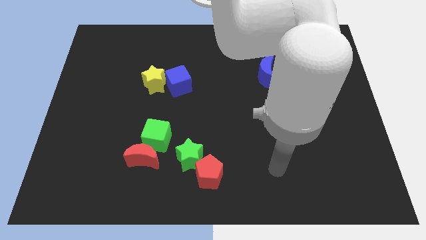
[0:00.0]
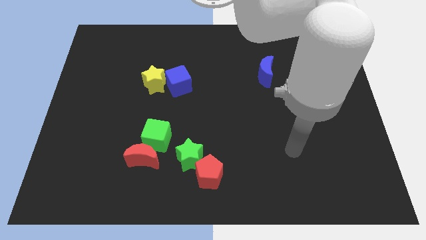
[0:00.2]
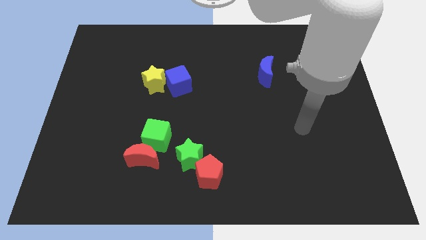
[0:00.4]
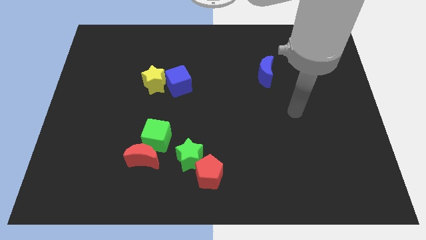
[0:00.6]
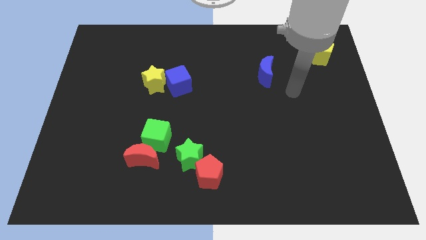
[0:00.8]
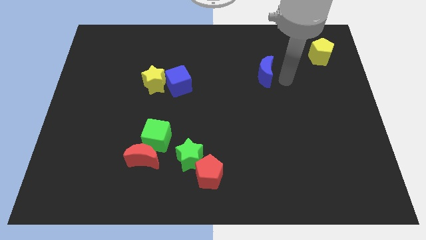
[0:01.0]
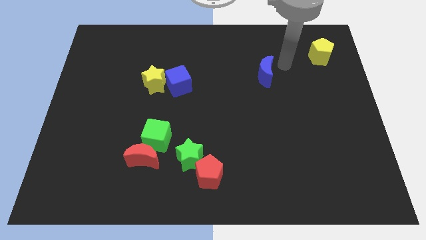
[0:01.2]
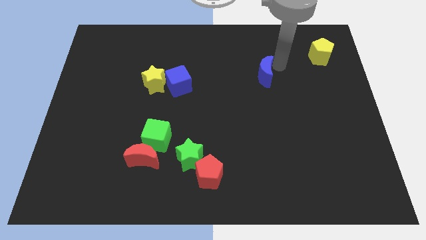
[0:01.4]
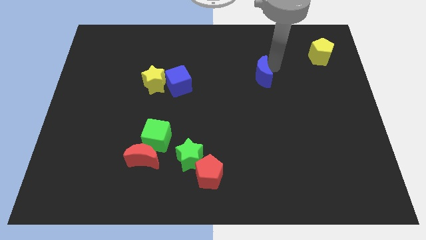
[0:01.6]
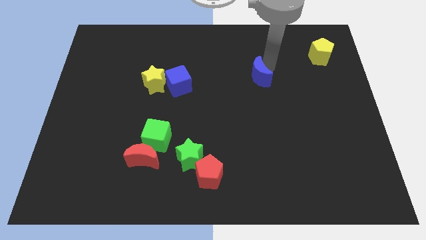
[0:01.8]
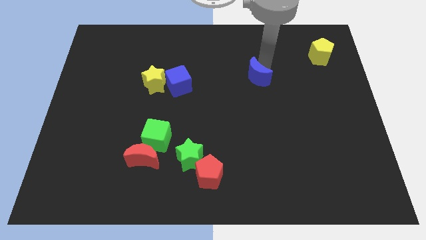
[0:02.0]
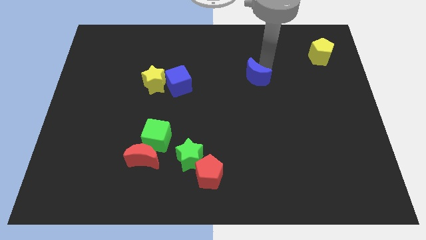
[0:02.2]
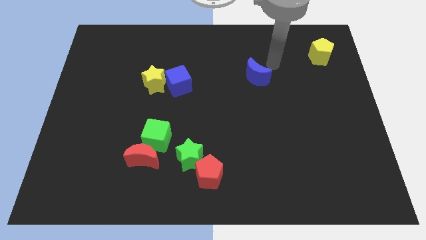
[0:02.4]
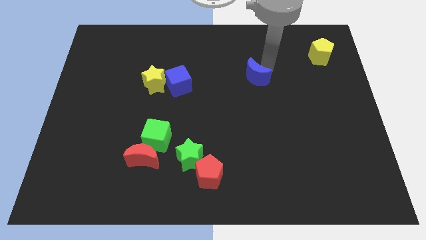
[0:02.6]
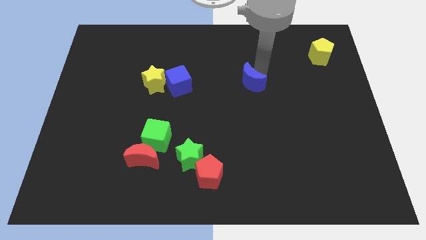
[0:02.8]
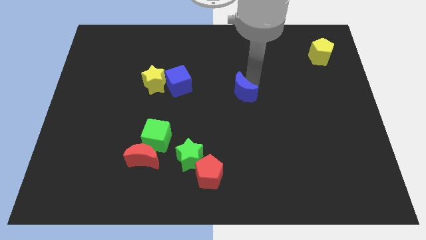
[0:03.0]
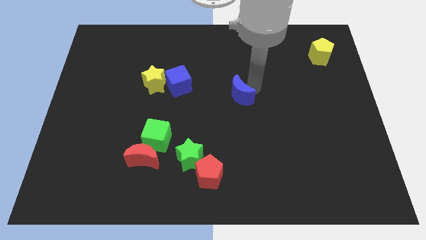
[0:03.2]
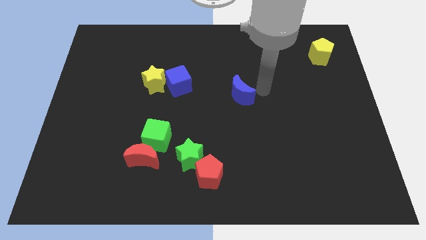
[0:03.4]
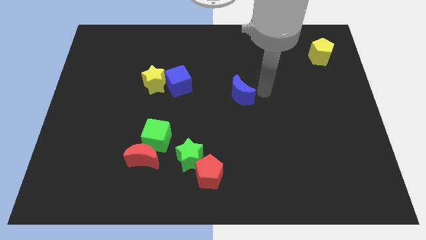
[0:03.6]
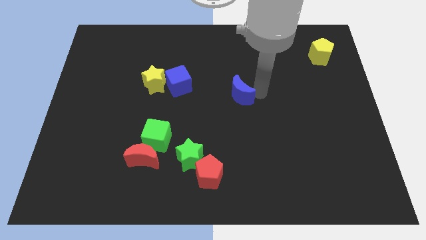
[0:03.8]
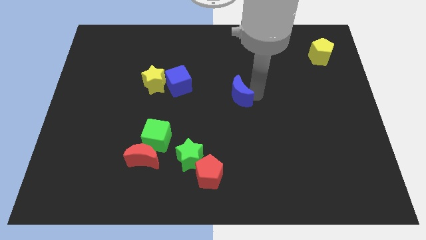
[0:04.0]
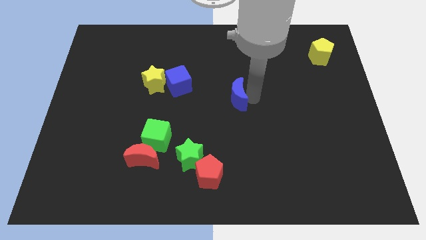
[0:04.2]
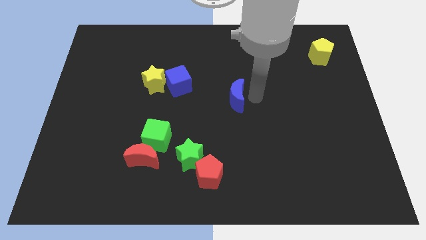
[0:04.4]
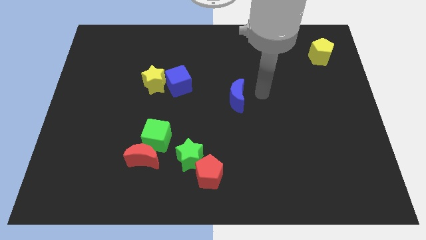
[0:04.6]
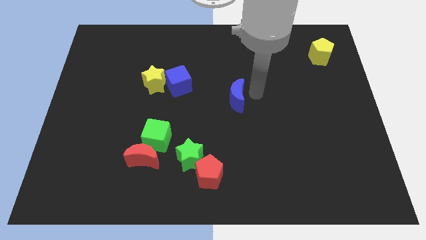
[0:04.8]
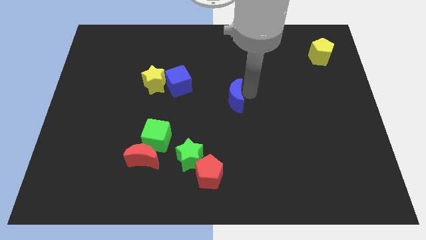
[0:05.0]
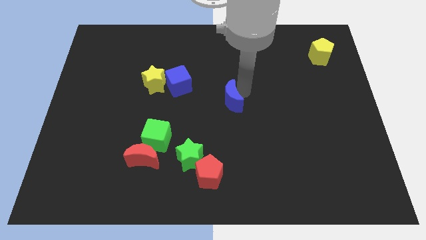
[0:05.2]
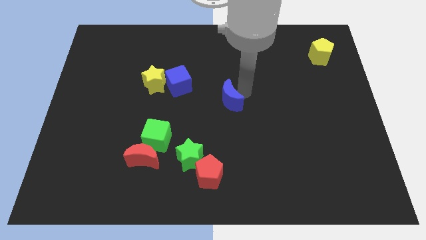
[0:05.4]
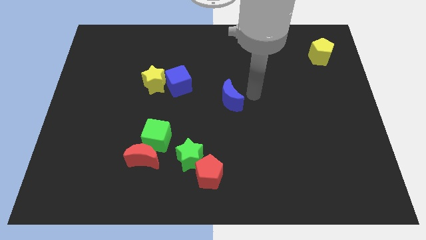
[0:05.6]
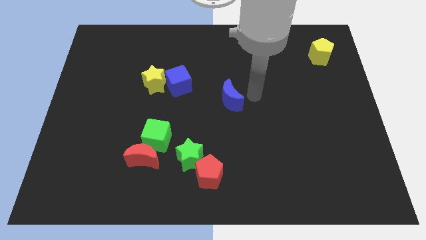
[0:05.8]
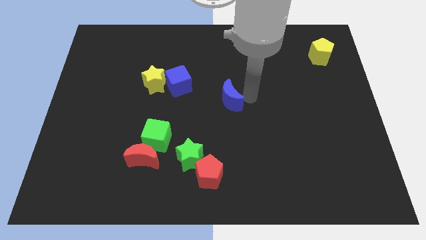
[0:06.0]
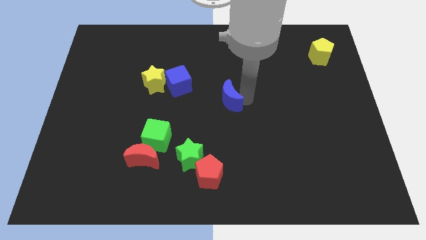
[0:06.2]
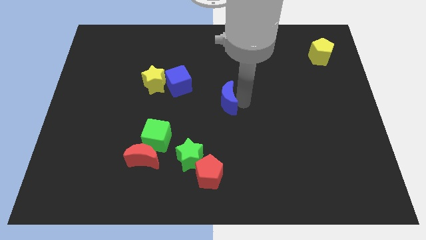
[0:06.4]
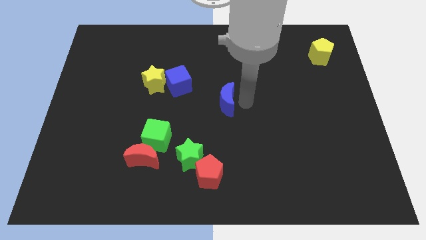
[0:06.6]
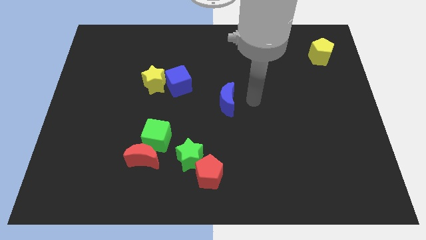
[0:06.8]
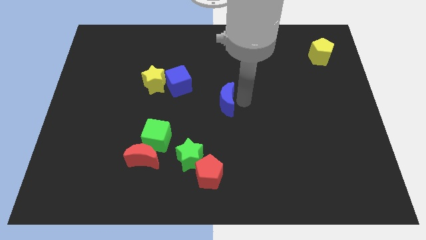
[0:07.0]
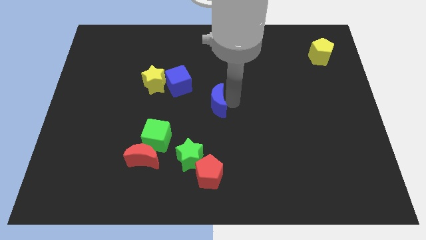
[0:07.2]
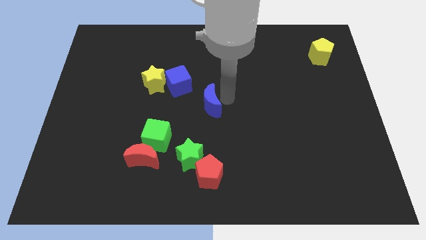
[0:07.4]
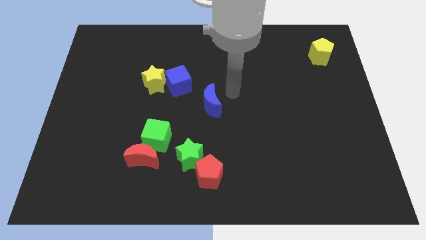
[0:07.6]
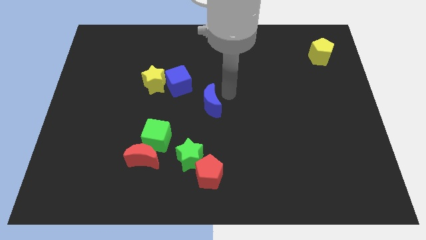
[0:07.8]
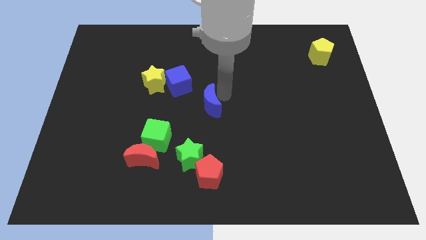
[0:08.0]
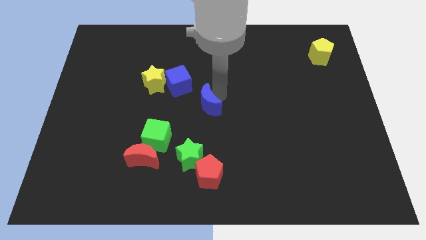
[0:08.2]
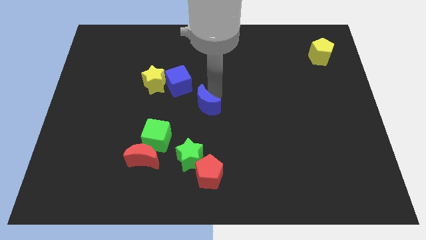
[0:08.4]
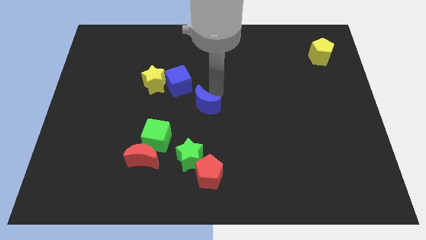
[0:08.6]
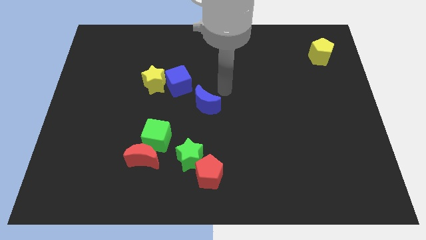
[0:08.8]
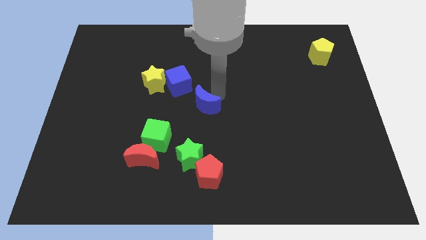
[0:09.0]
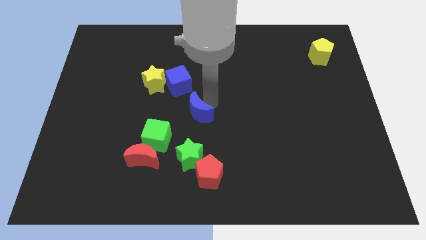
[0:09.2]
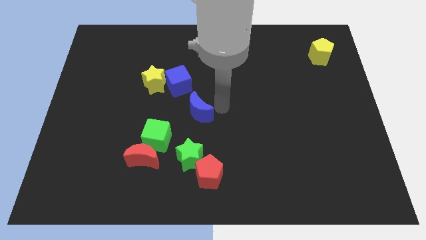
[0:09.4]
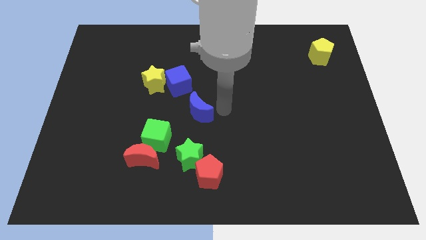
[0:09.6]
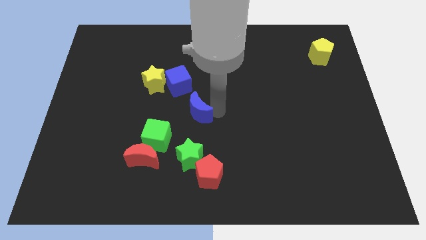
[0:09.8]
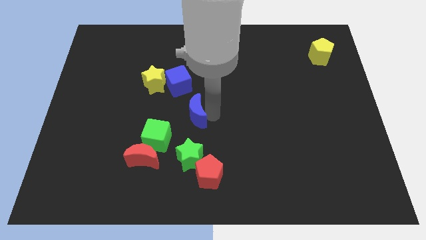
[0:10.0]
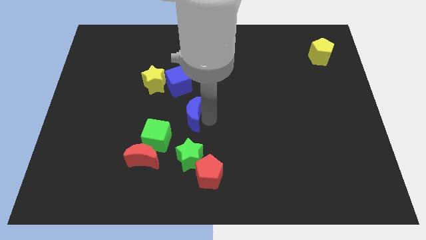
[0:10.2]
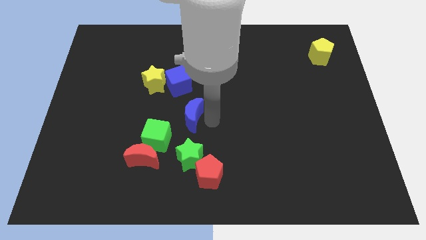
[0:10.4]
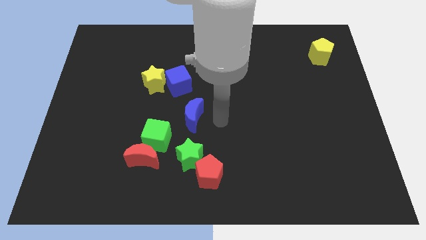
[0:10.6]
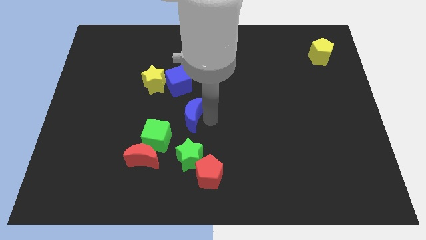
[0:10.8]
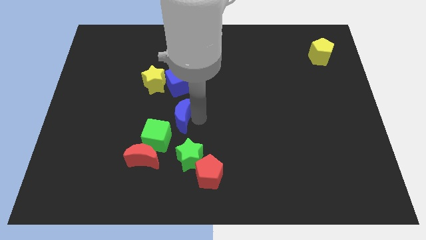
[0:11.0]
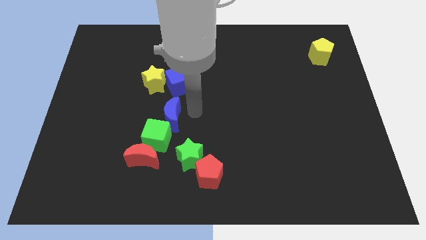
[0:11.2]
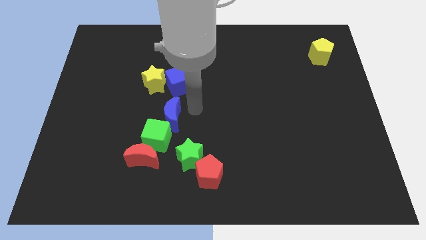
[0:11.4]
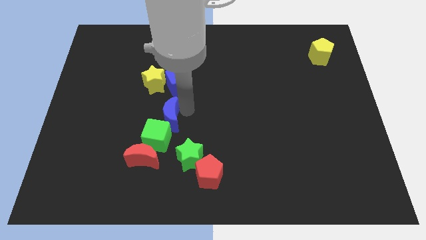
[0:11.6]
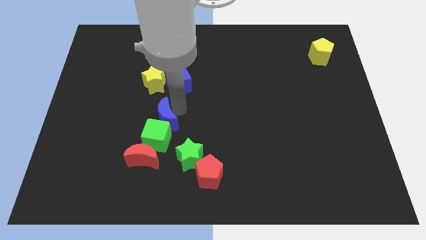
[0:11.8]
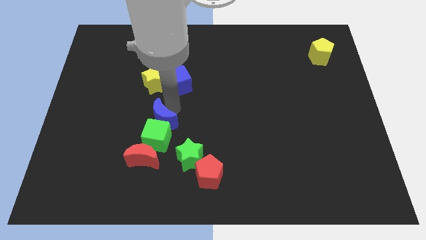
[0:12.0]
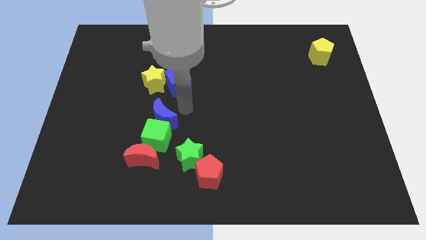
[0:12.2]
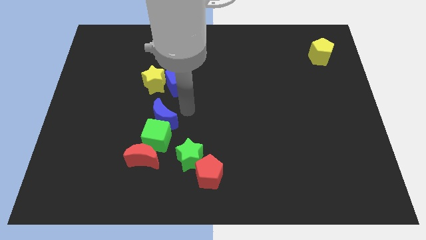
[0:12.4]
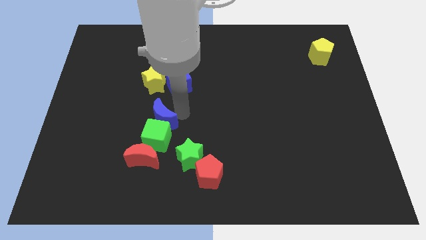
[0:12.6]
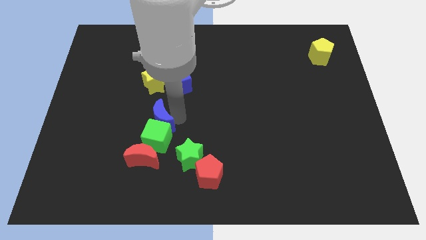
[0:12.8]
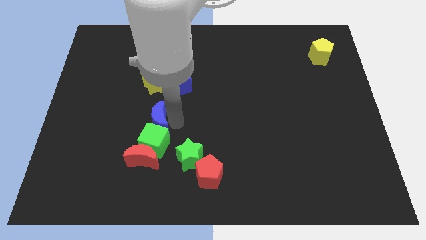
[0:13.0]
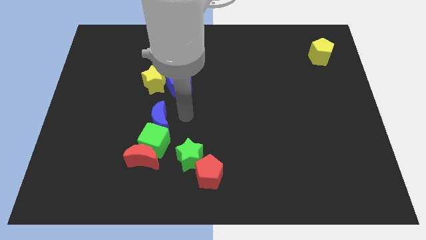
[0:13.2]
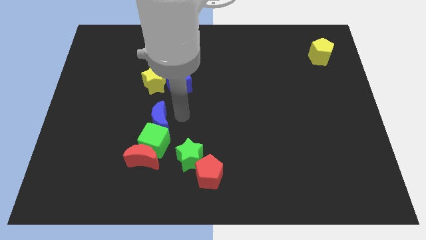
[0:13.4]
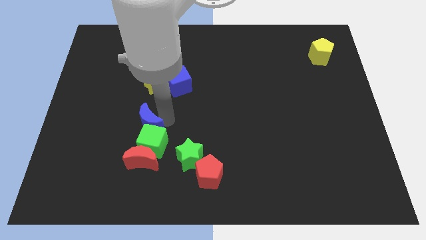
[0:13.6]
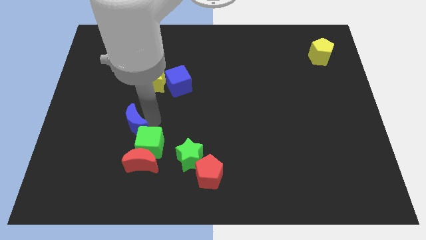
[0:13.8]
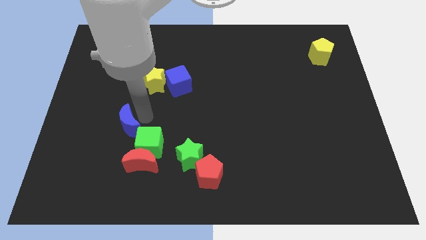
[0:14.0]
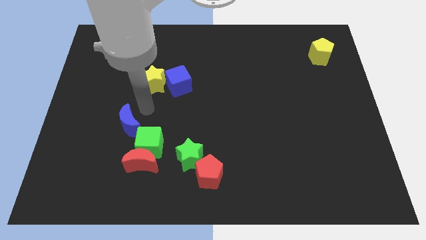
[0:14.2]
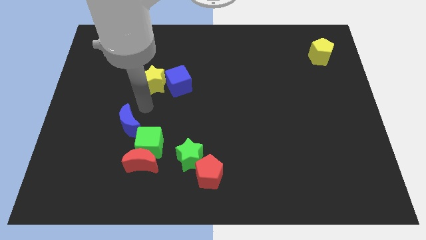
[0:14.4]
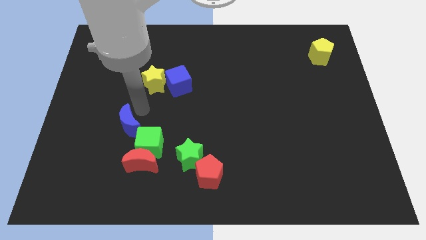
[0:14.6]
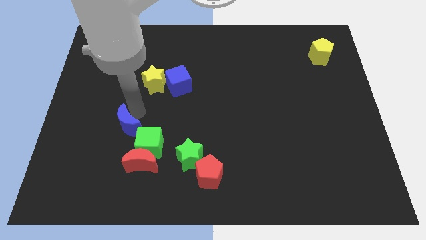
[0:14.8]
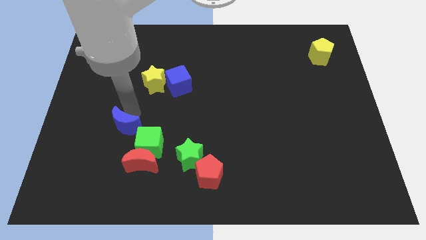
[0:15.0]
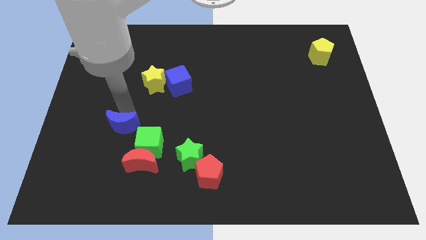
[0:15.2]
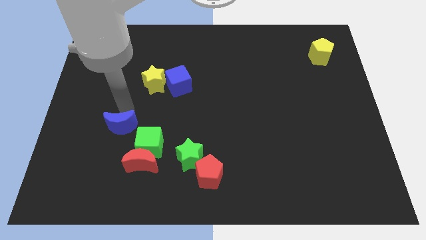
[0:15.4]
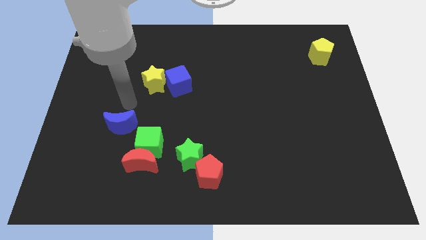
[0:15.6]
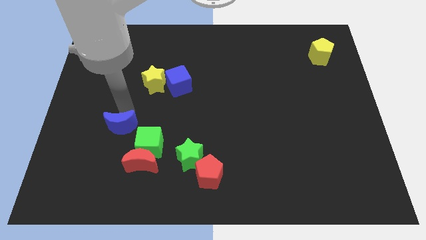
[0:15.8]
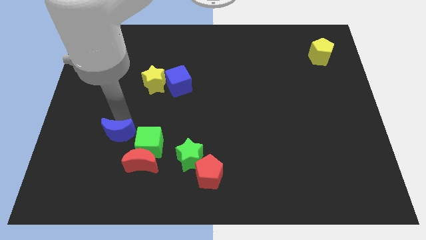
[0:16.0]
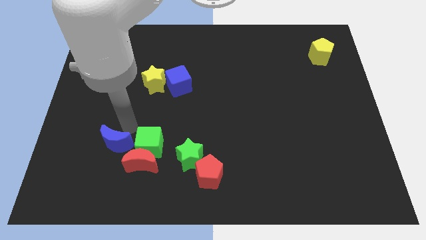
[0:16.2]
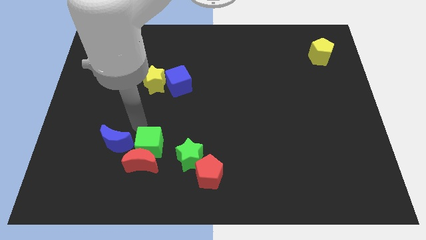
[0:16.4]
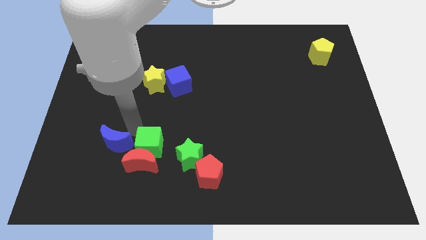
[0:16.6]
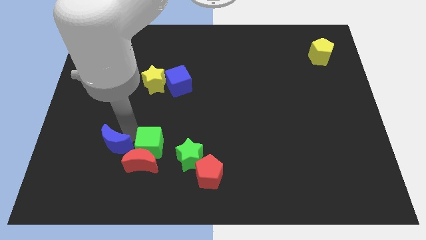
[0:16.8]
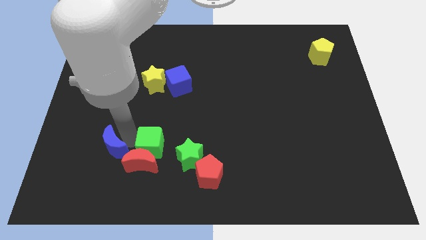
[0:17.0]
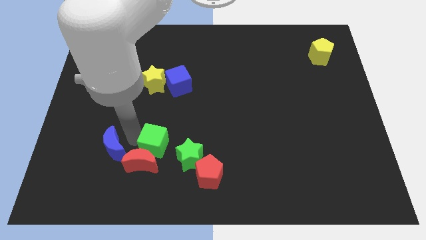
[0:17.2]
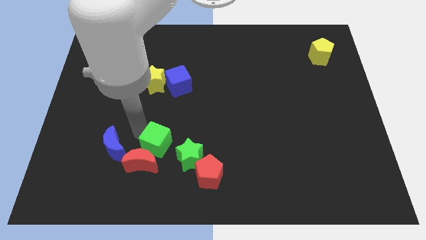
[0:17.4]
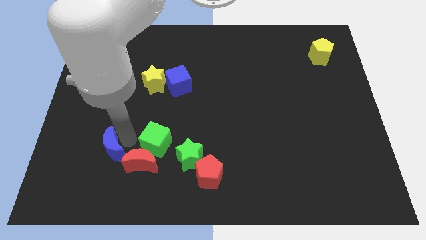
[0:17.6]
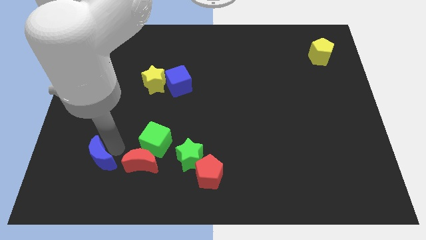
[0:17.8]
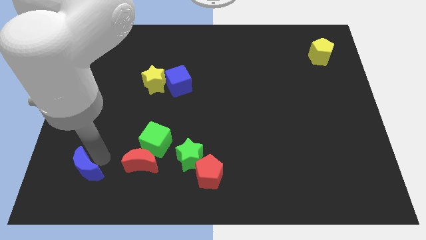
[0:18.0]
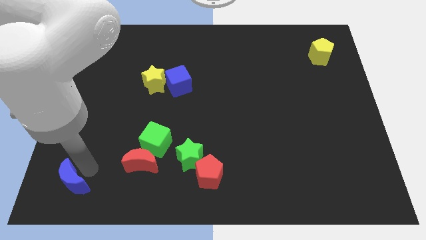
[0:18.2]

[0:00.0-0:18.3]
move the blue moon to the bottom left corner
